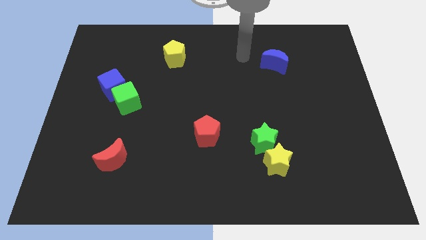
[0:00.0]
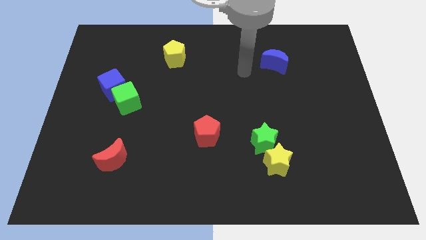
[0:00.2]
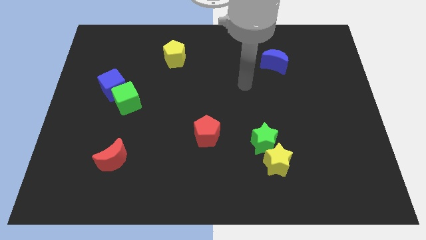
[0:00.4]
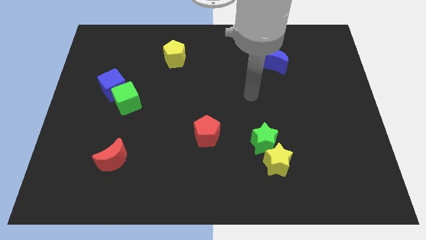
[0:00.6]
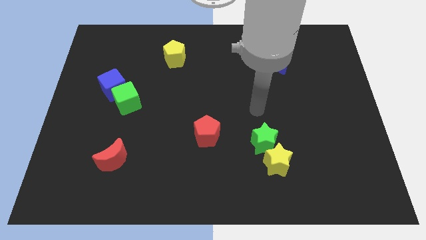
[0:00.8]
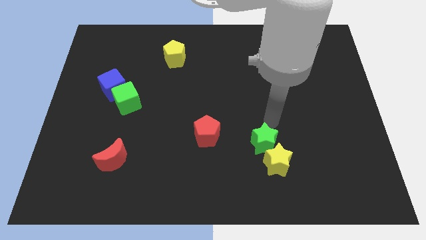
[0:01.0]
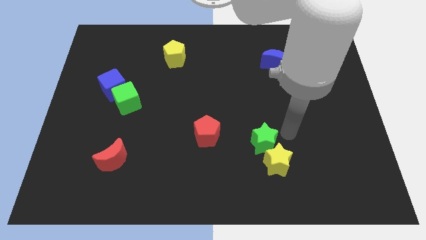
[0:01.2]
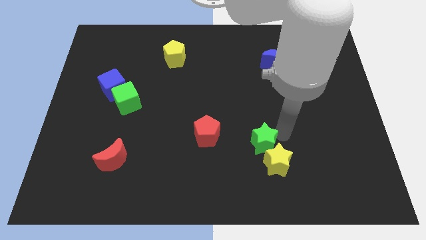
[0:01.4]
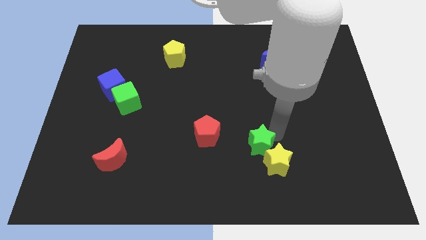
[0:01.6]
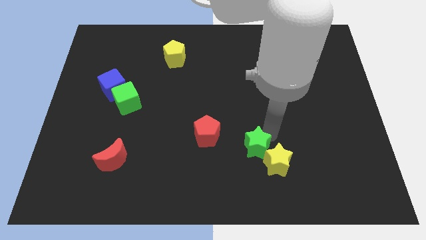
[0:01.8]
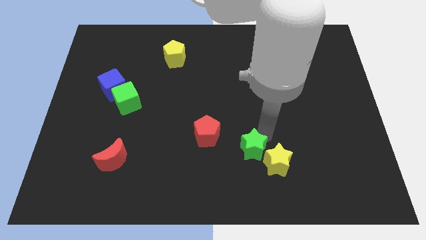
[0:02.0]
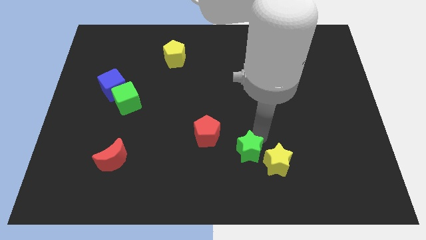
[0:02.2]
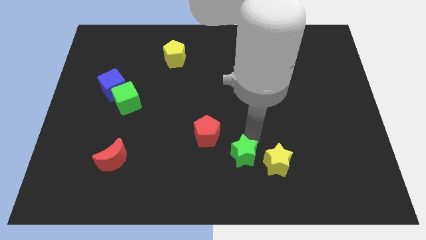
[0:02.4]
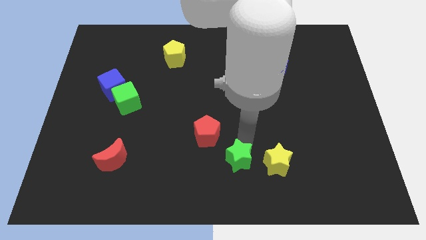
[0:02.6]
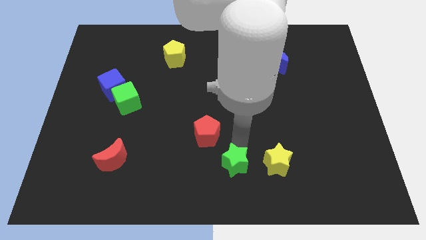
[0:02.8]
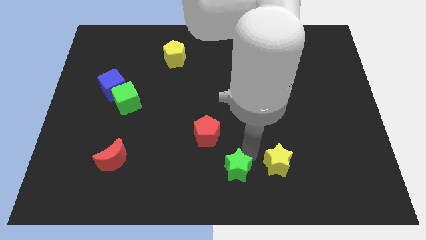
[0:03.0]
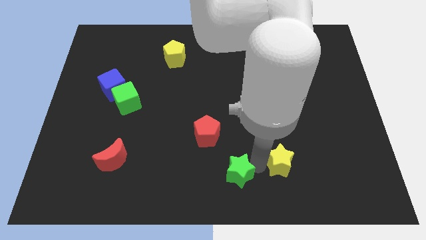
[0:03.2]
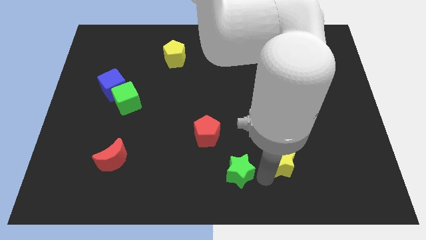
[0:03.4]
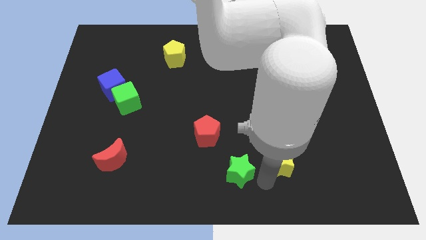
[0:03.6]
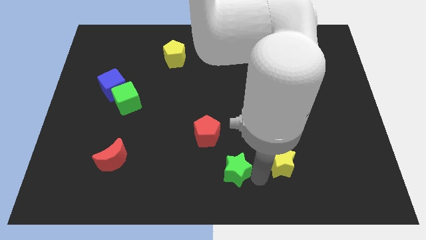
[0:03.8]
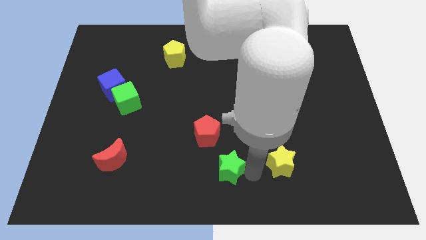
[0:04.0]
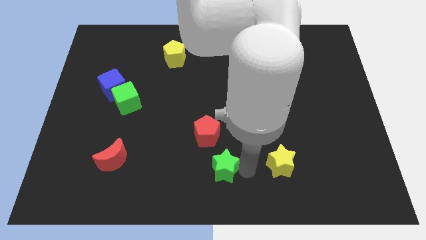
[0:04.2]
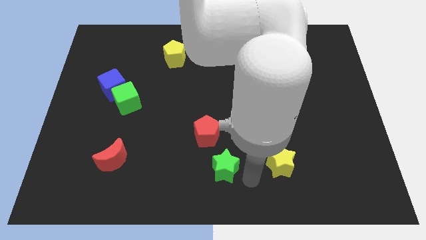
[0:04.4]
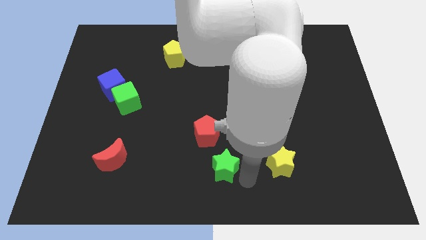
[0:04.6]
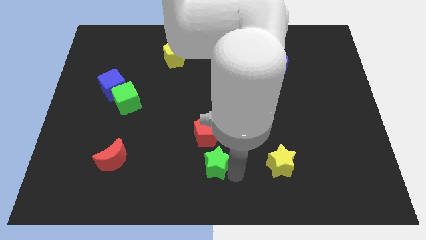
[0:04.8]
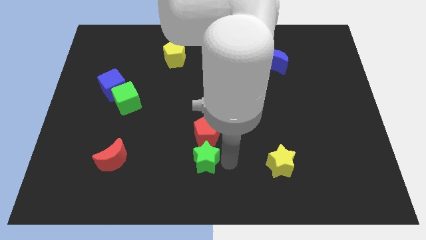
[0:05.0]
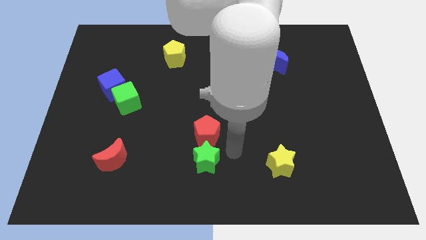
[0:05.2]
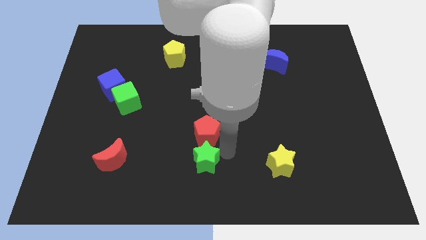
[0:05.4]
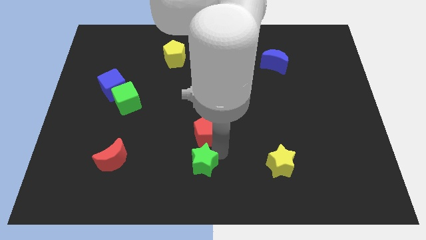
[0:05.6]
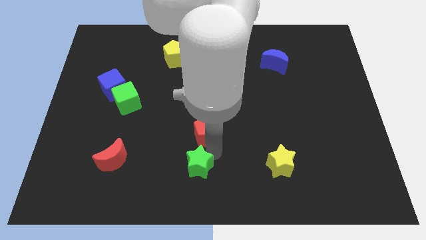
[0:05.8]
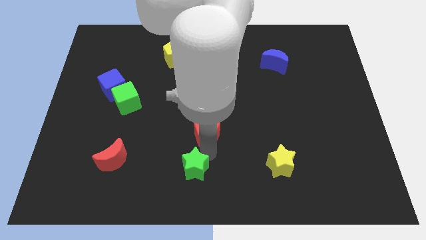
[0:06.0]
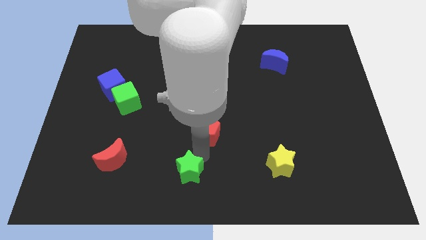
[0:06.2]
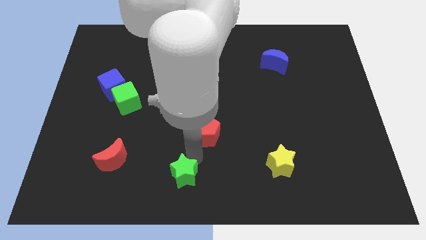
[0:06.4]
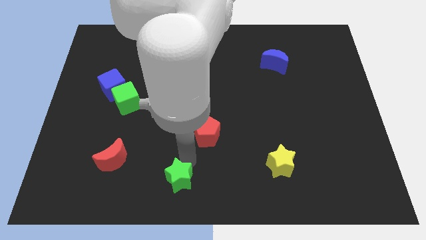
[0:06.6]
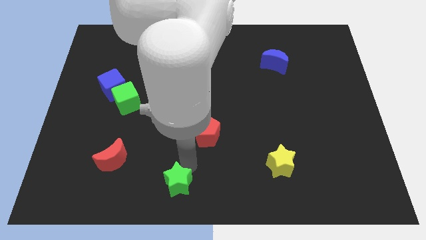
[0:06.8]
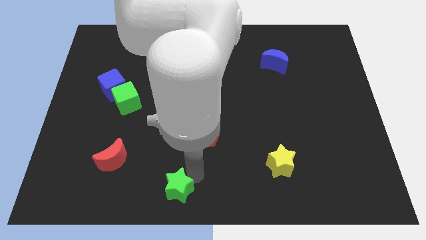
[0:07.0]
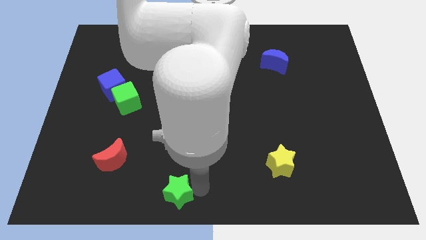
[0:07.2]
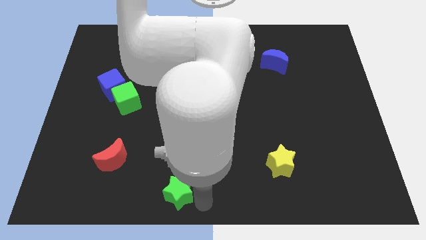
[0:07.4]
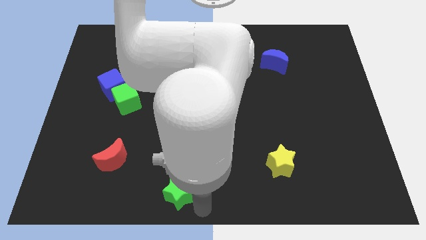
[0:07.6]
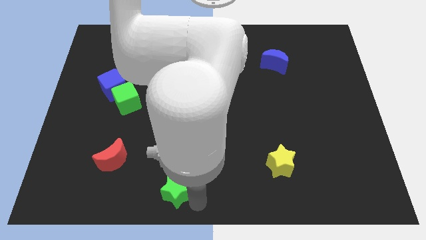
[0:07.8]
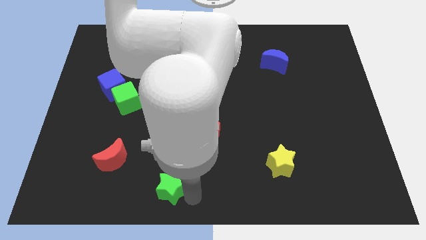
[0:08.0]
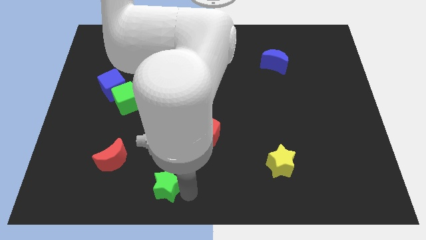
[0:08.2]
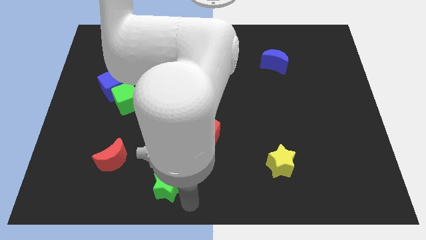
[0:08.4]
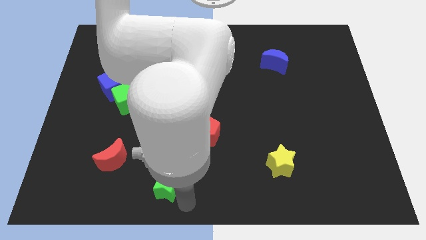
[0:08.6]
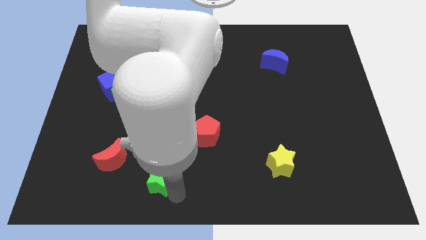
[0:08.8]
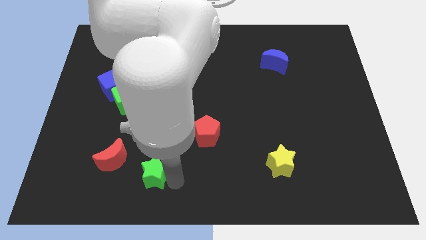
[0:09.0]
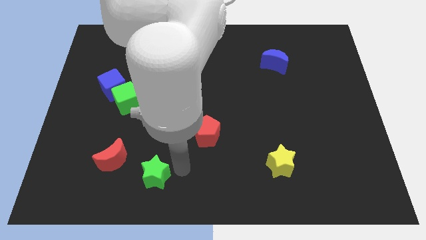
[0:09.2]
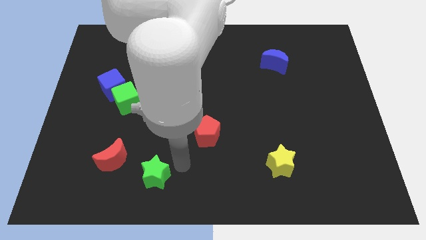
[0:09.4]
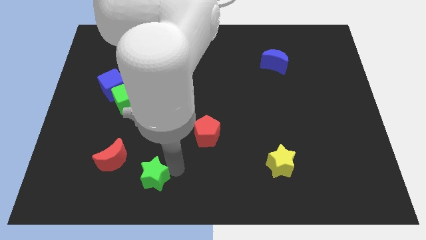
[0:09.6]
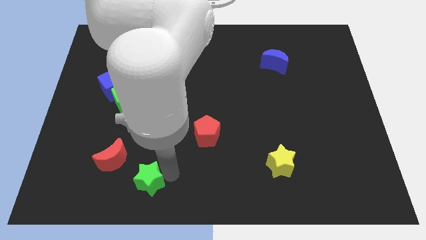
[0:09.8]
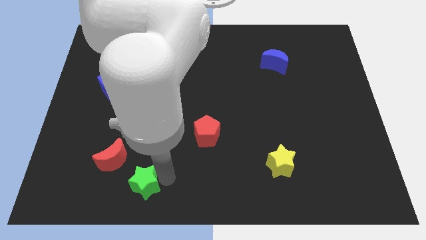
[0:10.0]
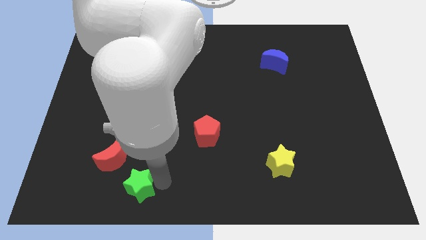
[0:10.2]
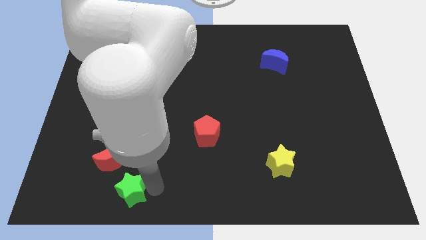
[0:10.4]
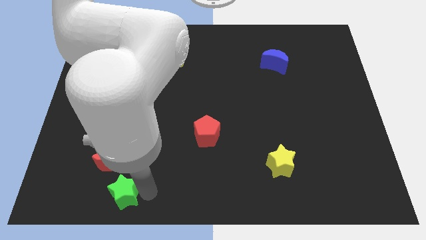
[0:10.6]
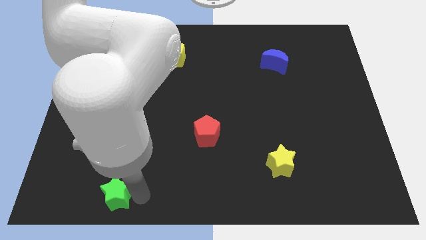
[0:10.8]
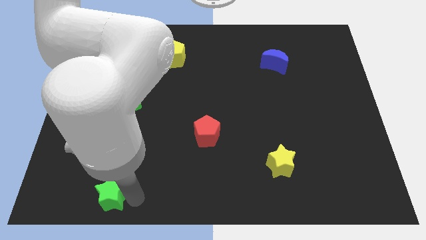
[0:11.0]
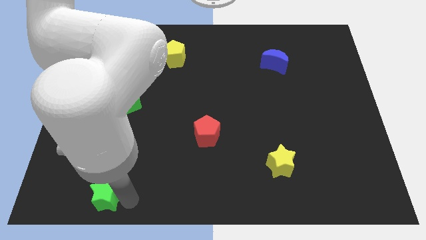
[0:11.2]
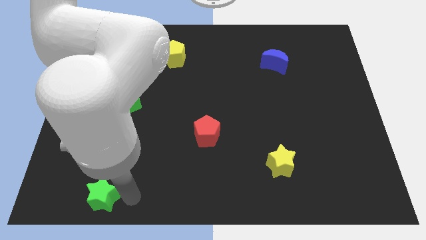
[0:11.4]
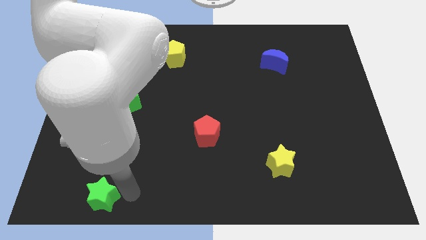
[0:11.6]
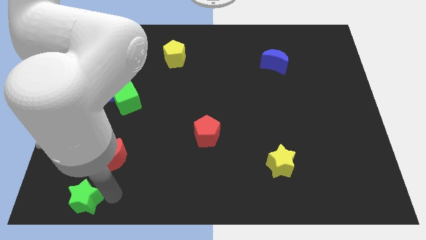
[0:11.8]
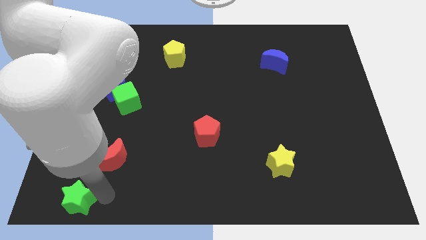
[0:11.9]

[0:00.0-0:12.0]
put the green star to the bottom left of the board
